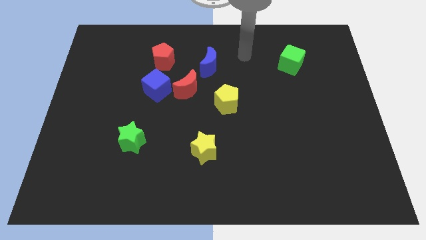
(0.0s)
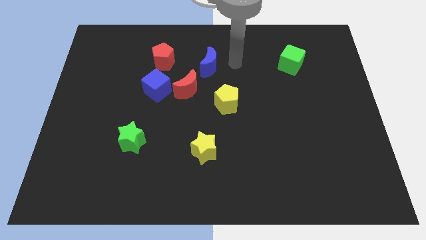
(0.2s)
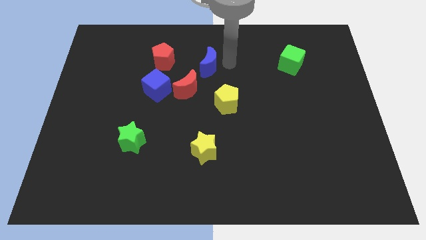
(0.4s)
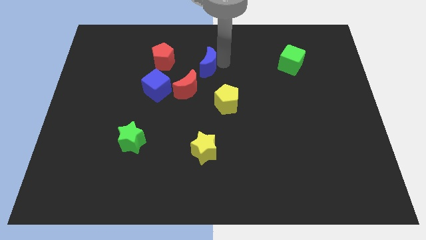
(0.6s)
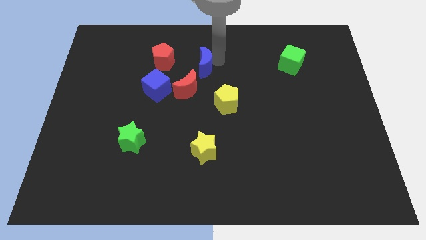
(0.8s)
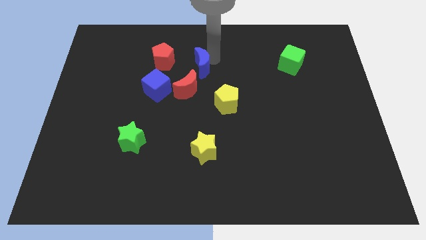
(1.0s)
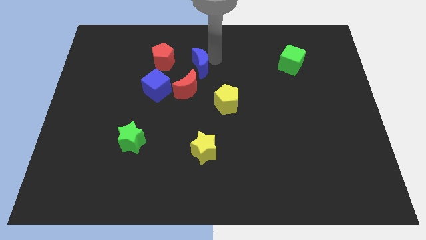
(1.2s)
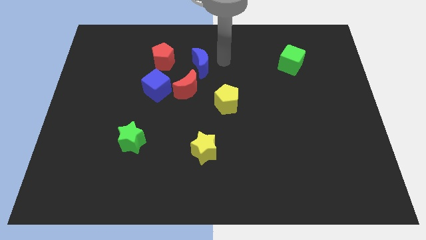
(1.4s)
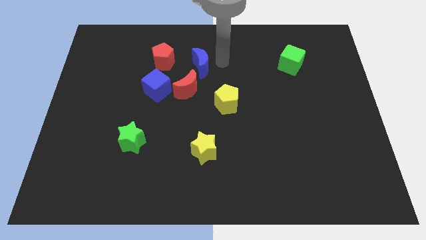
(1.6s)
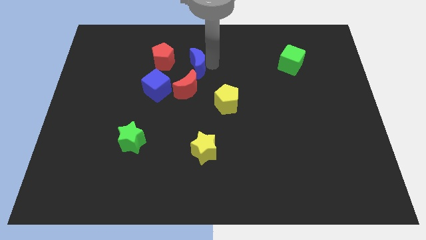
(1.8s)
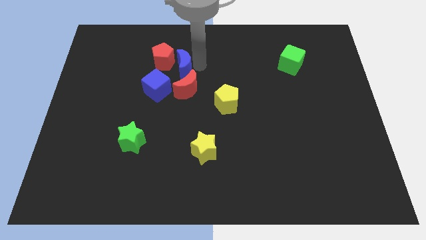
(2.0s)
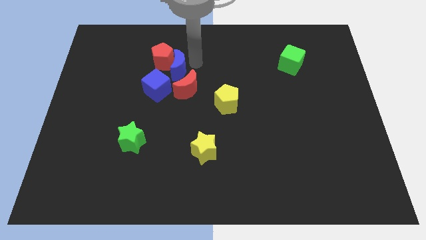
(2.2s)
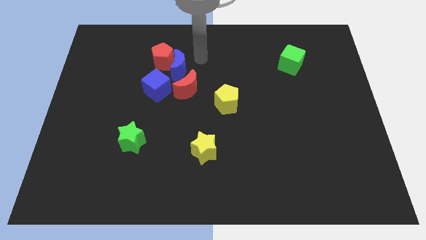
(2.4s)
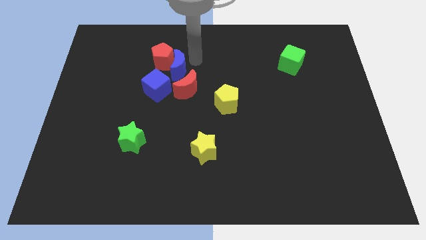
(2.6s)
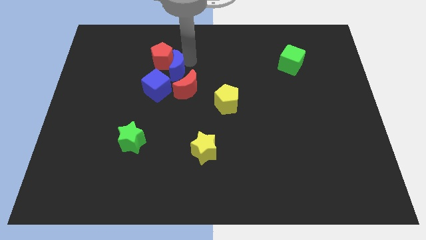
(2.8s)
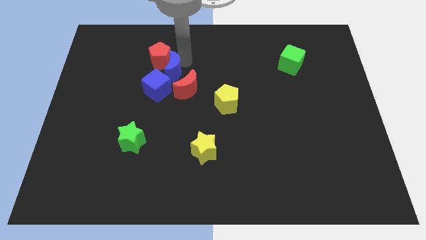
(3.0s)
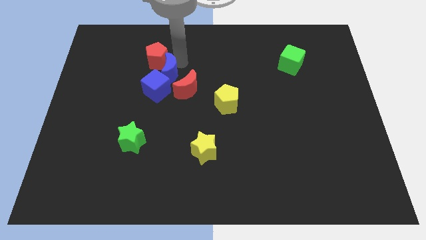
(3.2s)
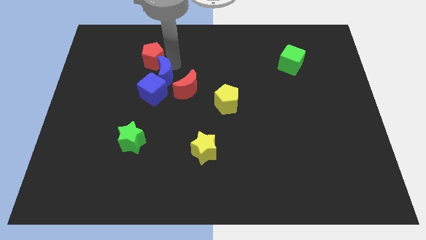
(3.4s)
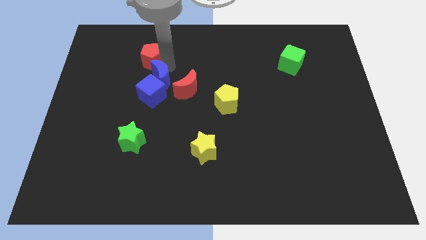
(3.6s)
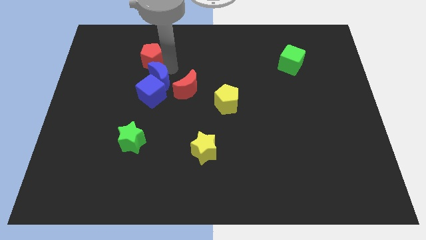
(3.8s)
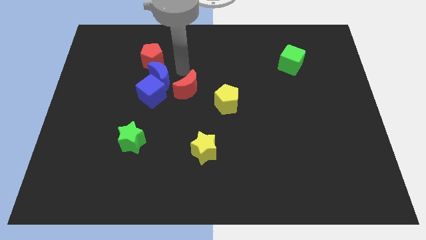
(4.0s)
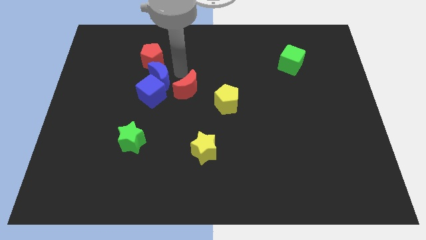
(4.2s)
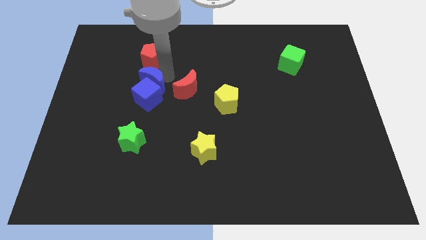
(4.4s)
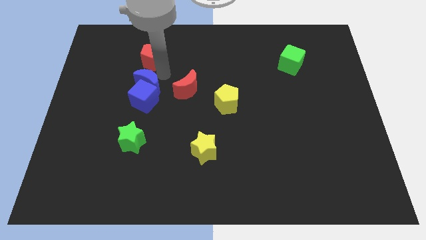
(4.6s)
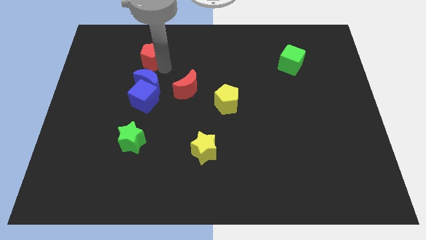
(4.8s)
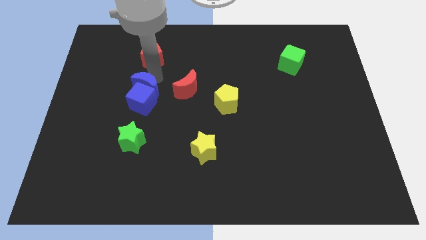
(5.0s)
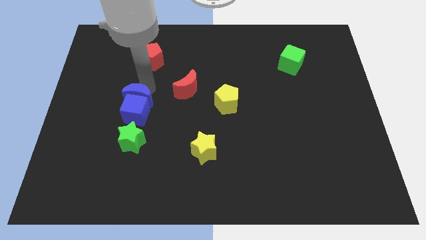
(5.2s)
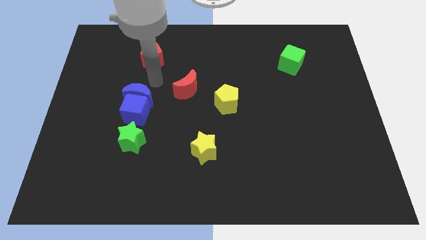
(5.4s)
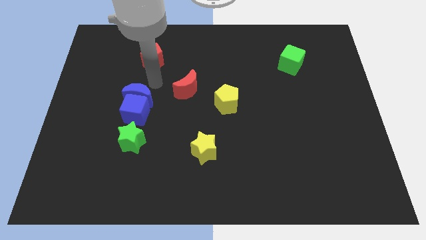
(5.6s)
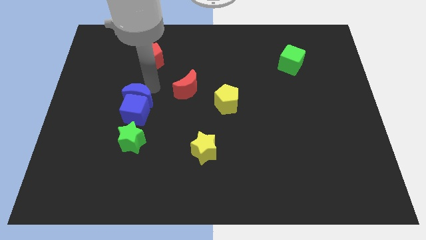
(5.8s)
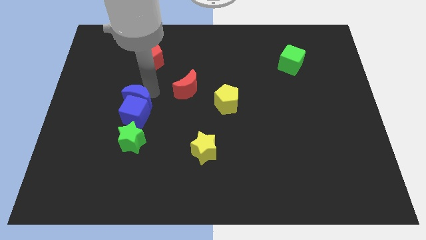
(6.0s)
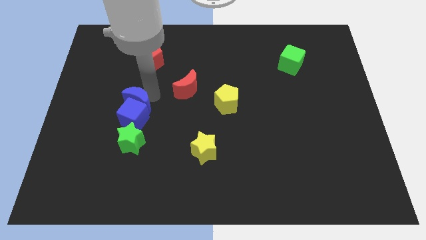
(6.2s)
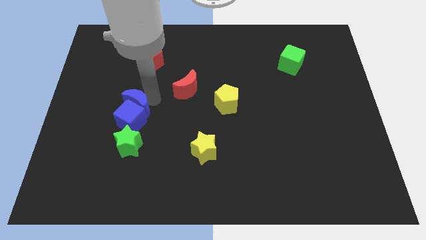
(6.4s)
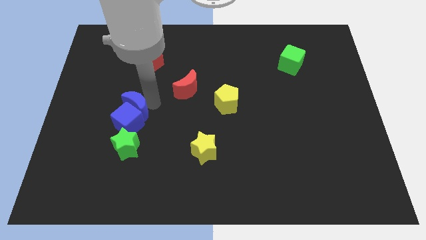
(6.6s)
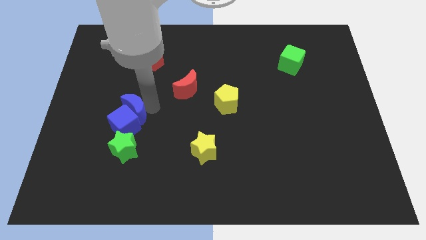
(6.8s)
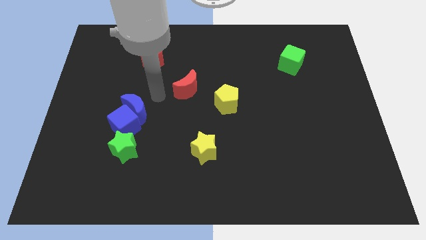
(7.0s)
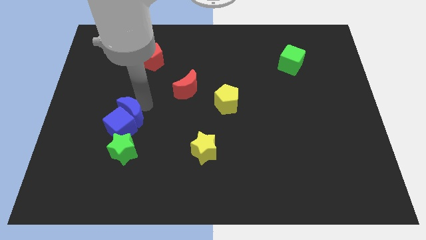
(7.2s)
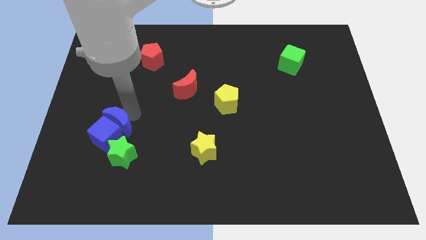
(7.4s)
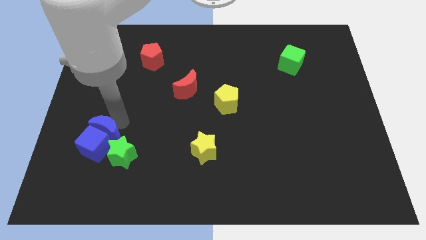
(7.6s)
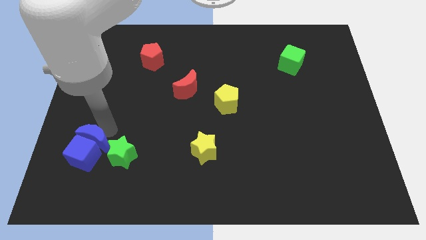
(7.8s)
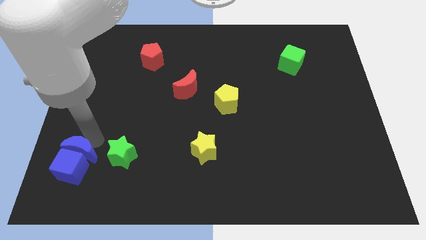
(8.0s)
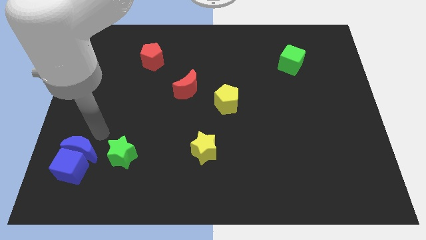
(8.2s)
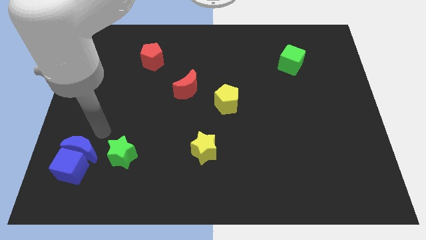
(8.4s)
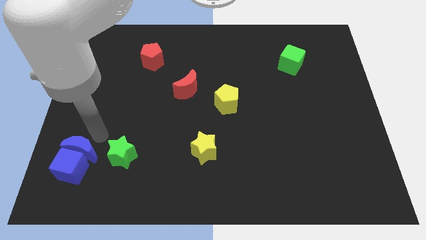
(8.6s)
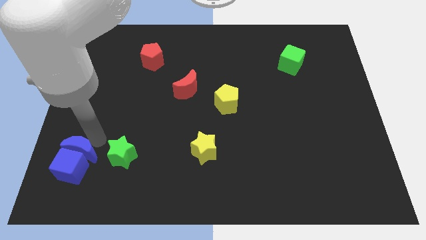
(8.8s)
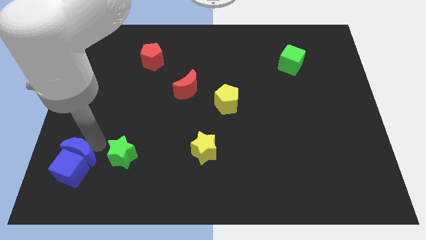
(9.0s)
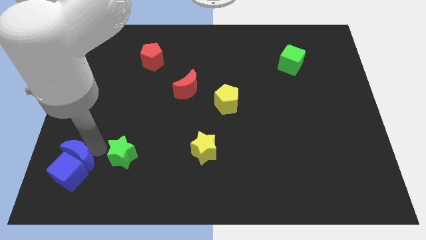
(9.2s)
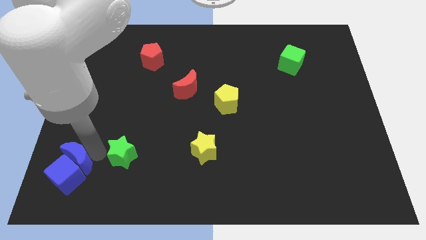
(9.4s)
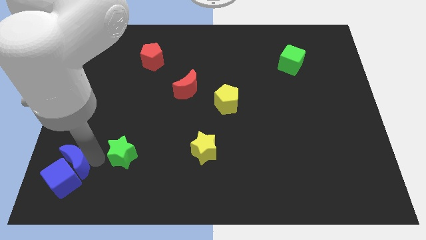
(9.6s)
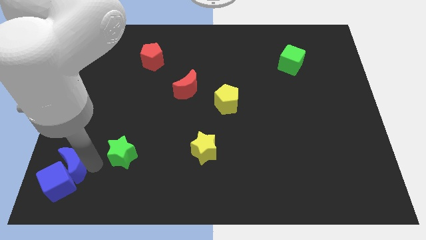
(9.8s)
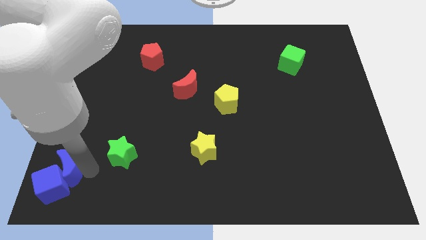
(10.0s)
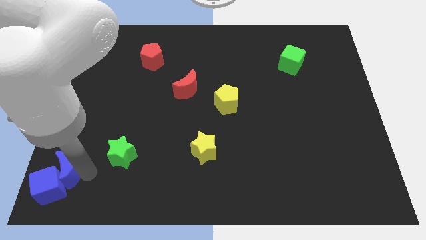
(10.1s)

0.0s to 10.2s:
put the blue moon to the bottom left corner

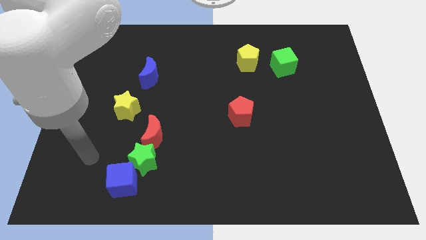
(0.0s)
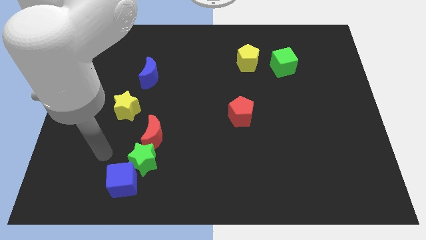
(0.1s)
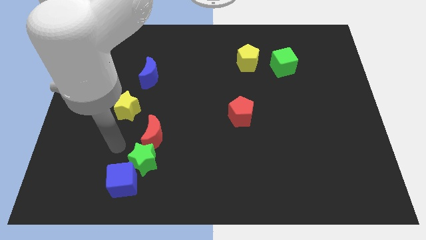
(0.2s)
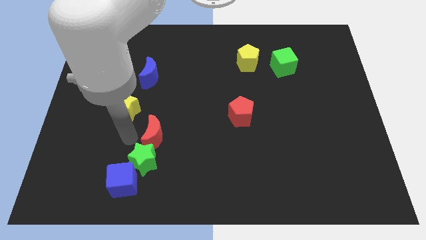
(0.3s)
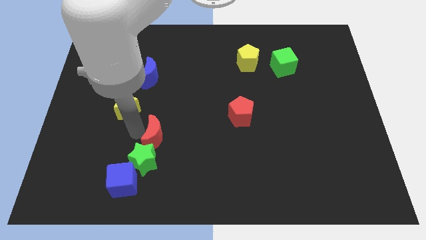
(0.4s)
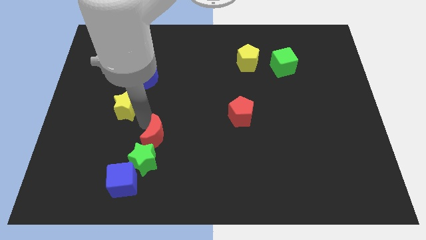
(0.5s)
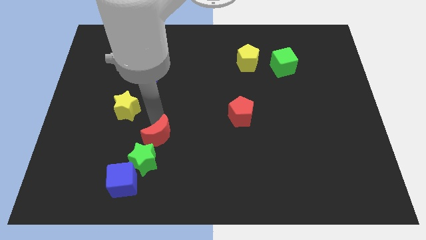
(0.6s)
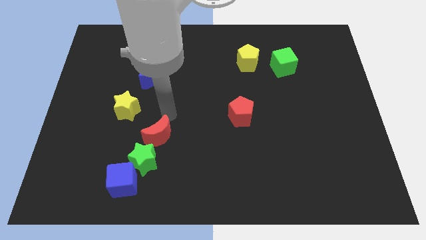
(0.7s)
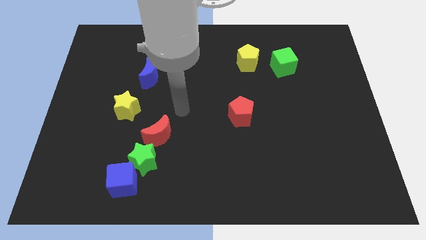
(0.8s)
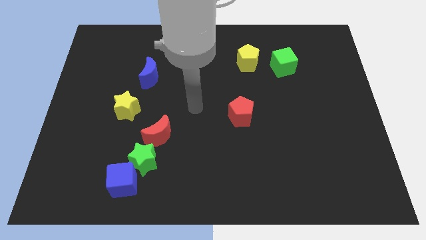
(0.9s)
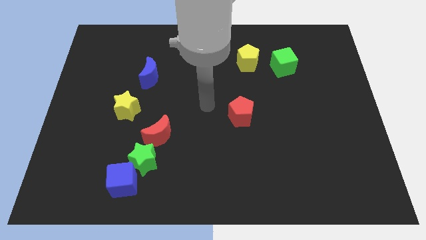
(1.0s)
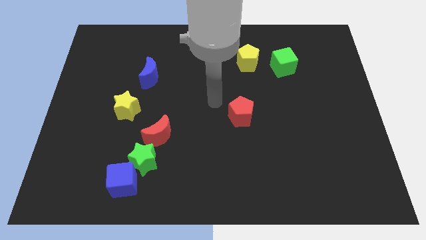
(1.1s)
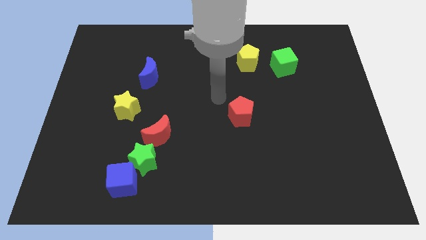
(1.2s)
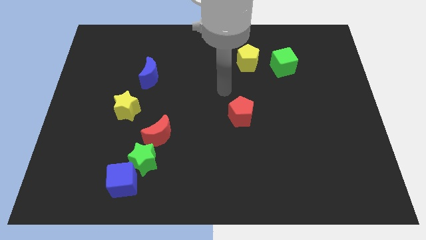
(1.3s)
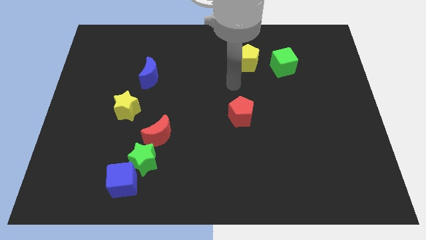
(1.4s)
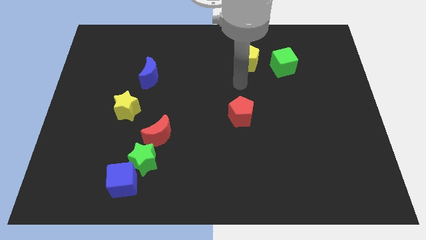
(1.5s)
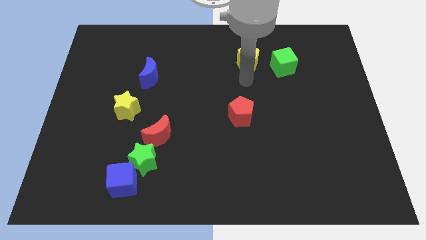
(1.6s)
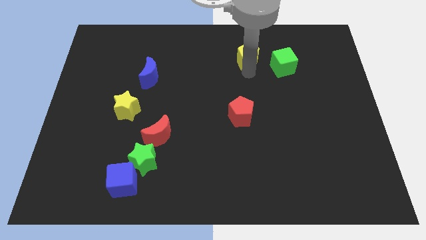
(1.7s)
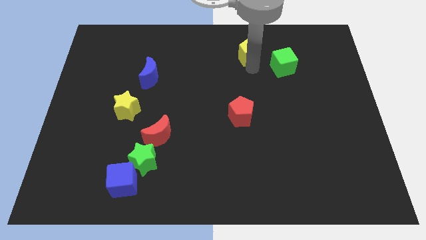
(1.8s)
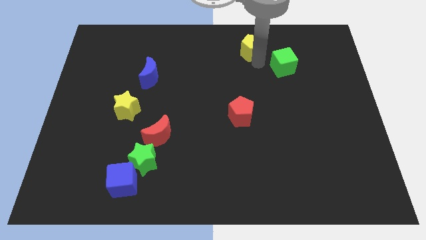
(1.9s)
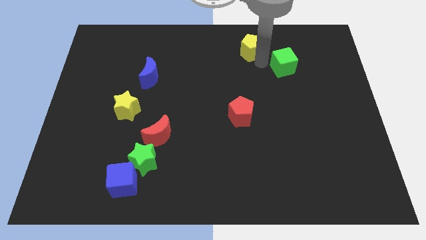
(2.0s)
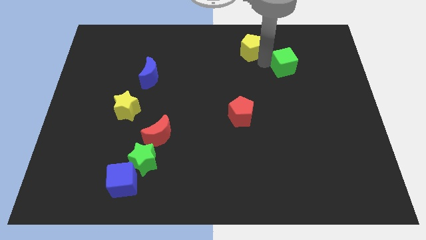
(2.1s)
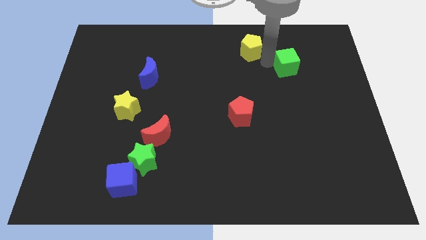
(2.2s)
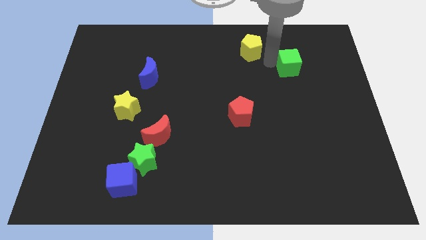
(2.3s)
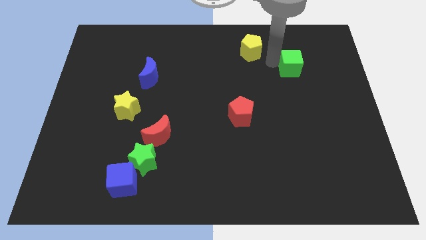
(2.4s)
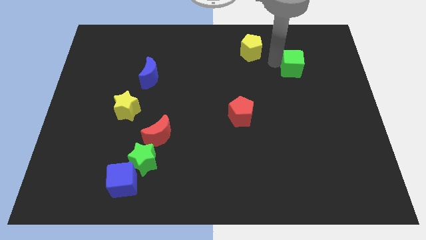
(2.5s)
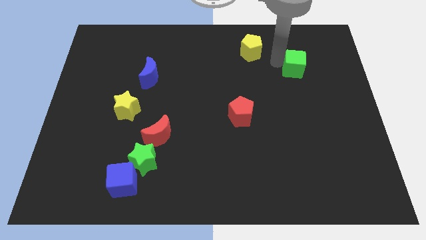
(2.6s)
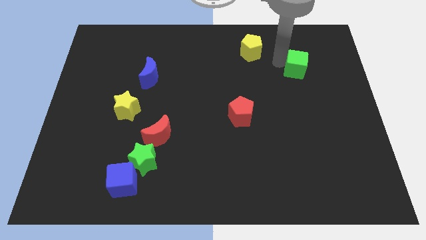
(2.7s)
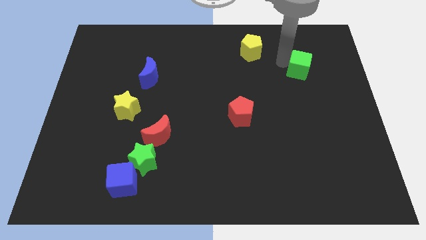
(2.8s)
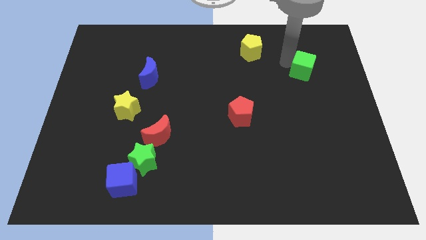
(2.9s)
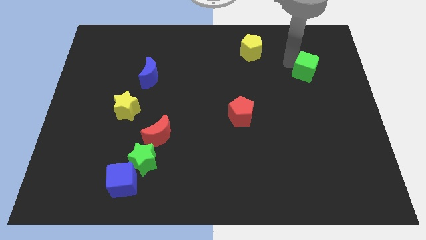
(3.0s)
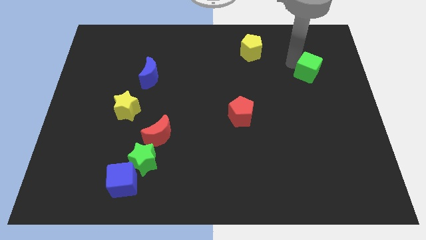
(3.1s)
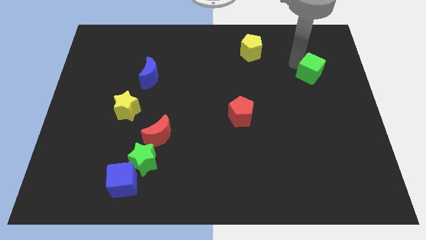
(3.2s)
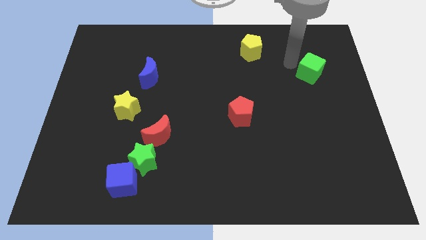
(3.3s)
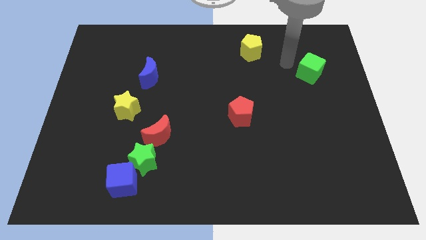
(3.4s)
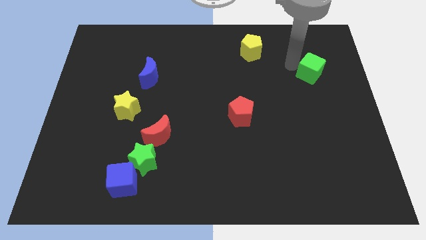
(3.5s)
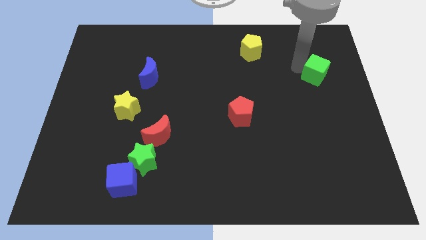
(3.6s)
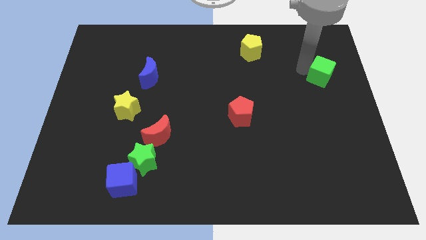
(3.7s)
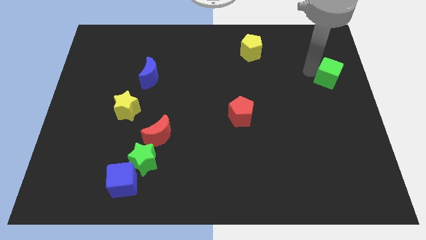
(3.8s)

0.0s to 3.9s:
move the green cube to the right side
